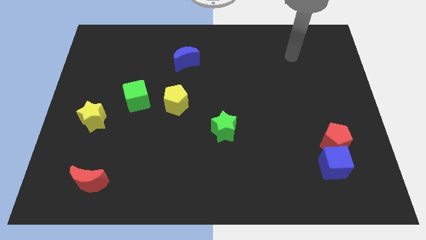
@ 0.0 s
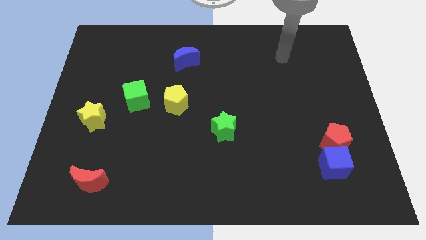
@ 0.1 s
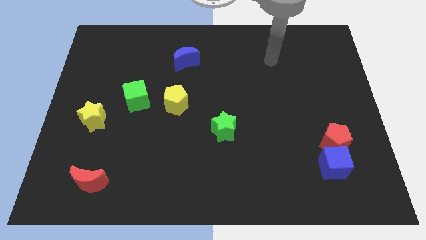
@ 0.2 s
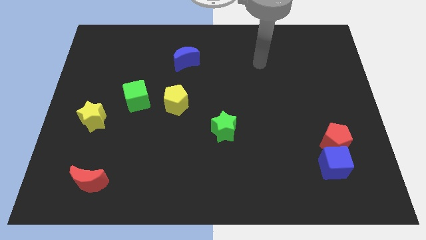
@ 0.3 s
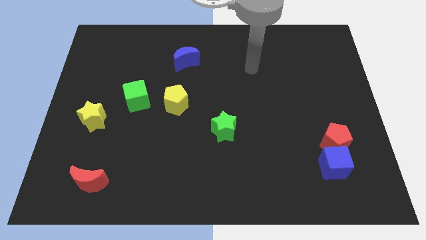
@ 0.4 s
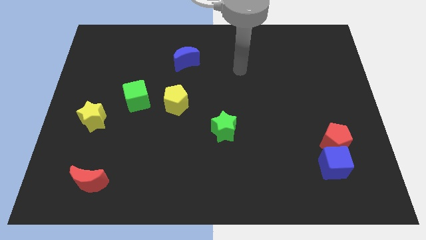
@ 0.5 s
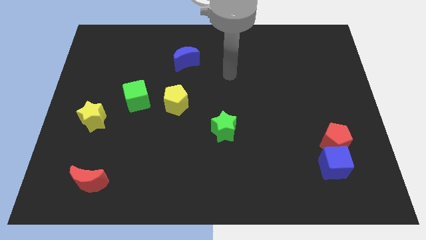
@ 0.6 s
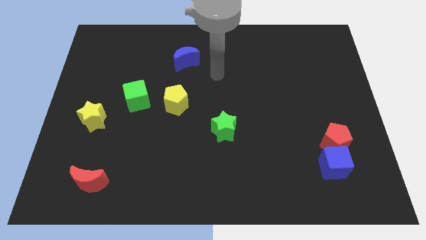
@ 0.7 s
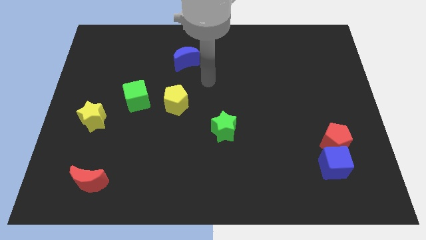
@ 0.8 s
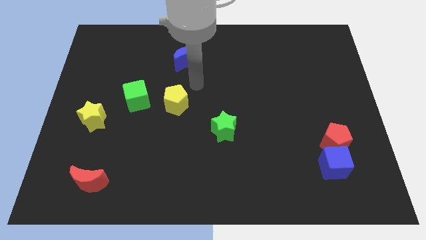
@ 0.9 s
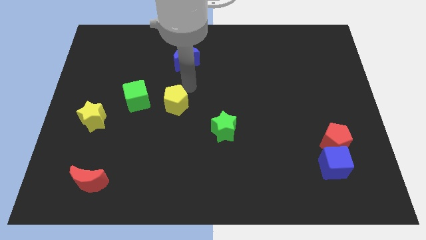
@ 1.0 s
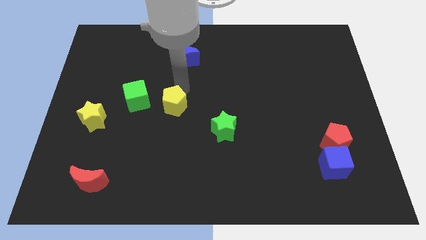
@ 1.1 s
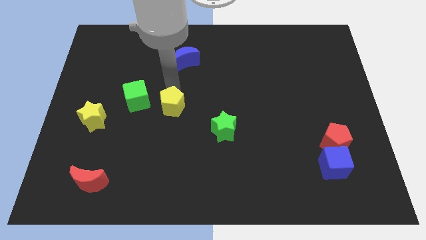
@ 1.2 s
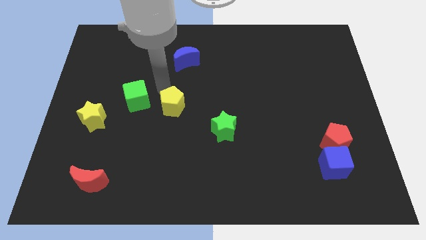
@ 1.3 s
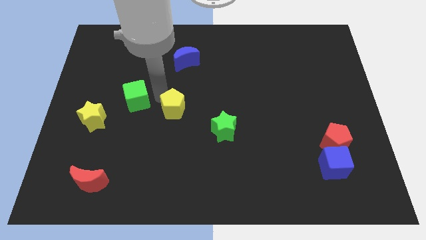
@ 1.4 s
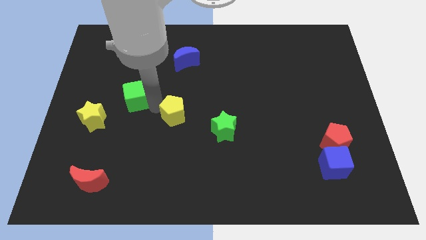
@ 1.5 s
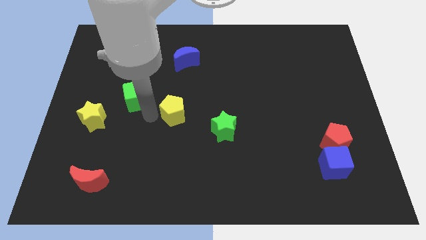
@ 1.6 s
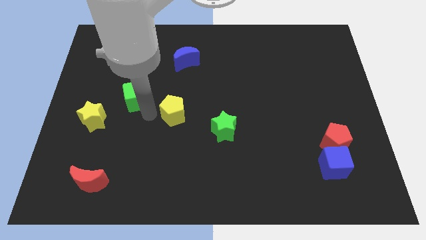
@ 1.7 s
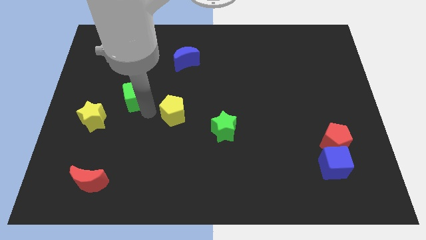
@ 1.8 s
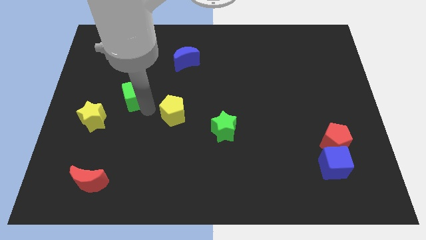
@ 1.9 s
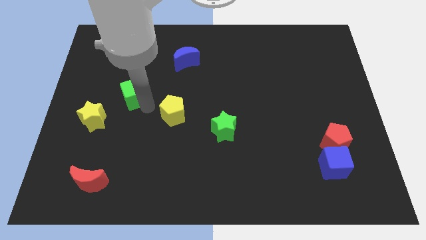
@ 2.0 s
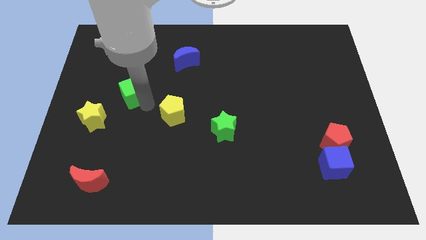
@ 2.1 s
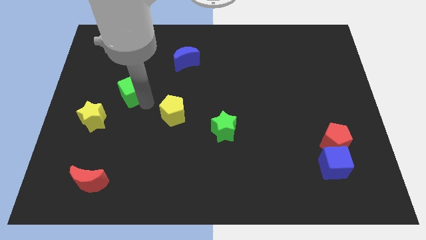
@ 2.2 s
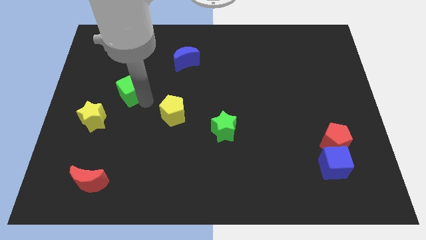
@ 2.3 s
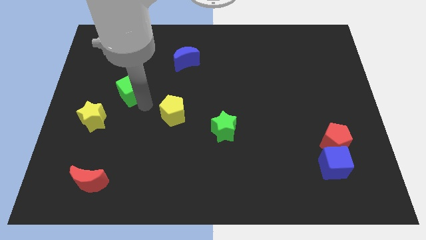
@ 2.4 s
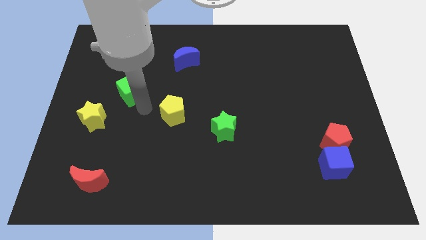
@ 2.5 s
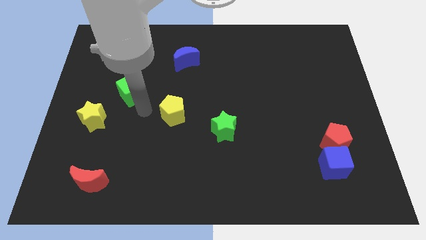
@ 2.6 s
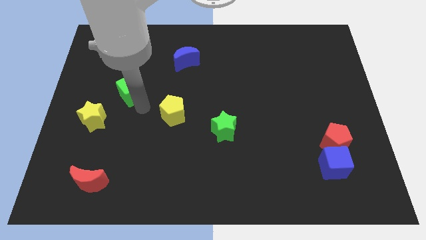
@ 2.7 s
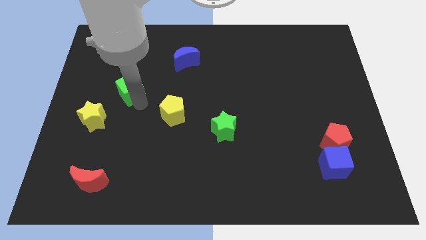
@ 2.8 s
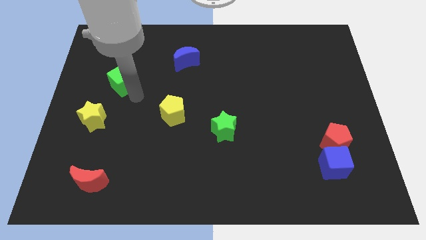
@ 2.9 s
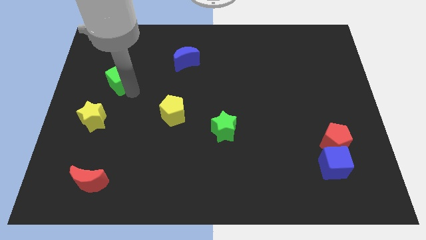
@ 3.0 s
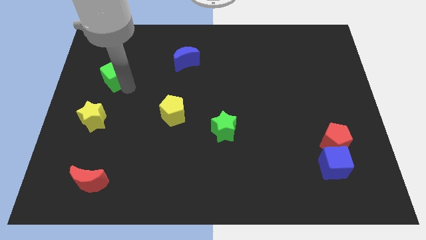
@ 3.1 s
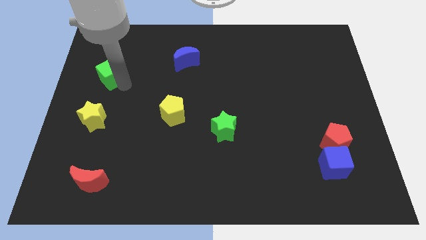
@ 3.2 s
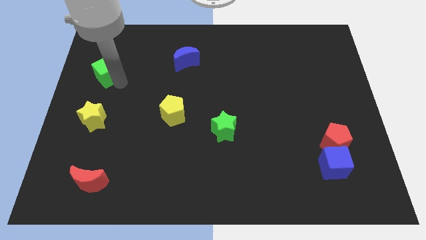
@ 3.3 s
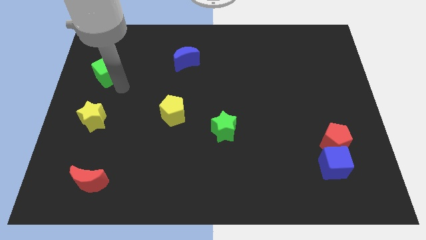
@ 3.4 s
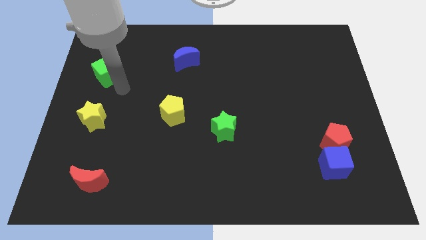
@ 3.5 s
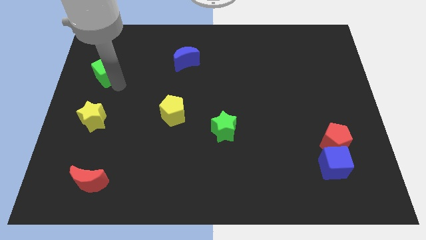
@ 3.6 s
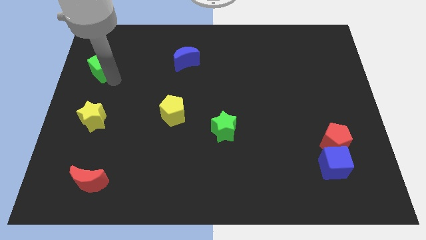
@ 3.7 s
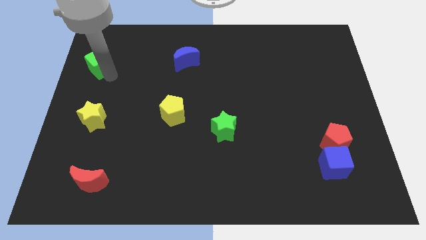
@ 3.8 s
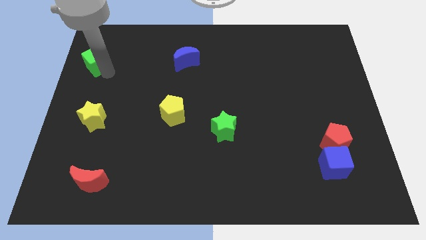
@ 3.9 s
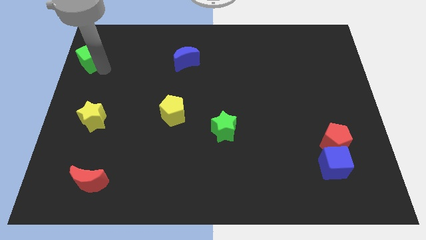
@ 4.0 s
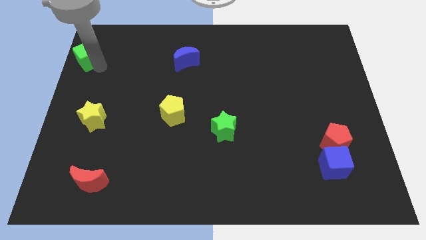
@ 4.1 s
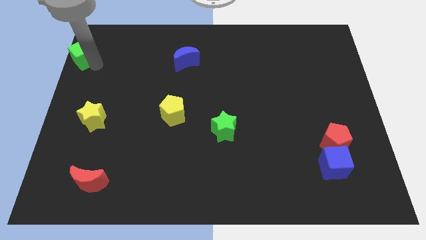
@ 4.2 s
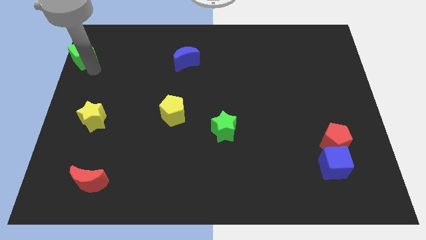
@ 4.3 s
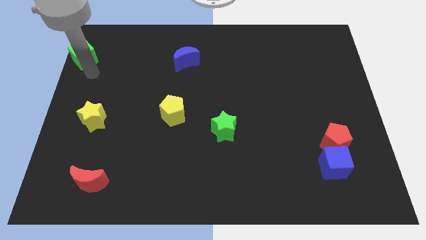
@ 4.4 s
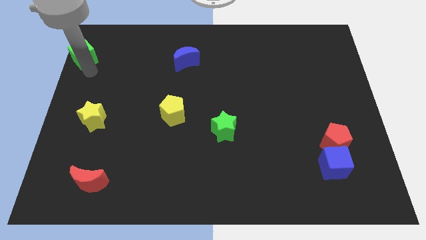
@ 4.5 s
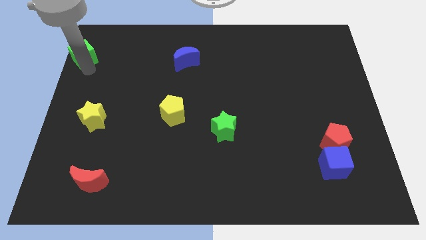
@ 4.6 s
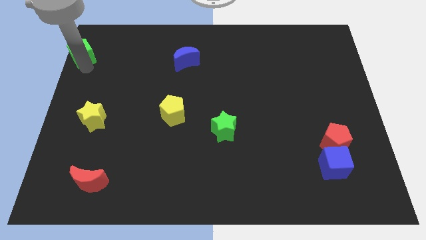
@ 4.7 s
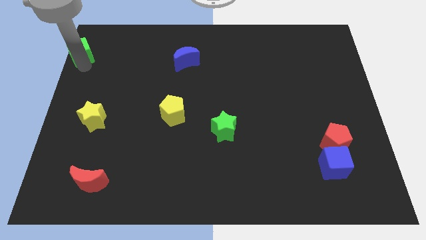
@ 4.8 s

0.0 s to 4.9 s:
move the green cube to the top left corner

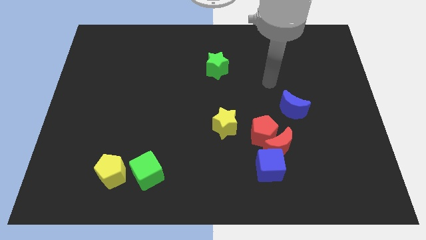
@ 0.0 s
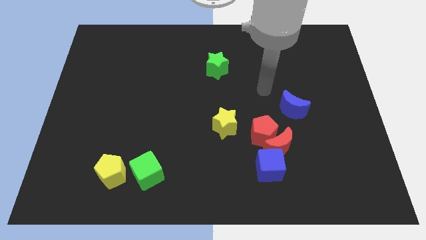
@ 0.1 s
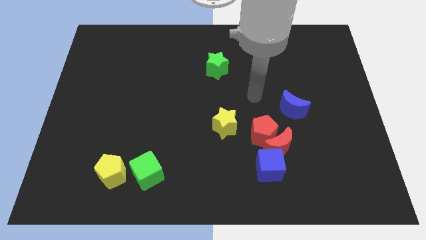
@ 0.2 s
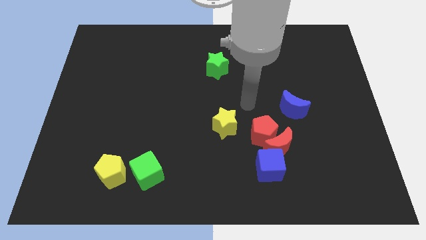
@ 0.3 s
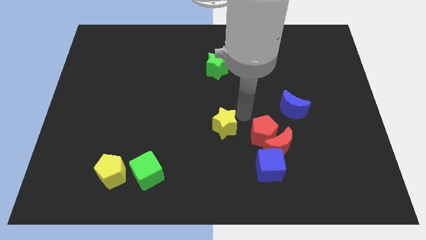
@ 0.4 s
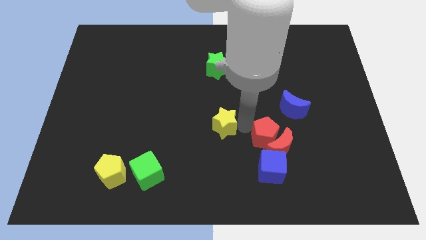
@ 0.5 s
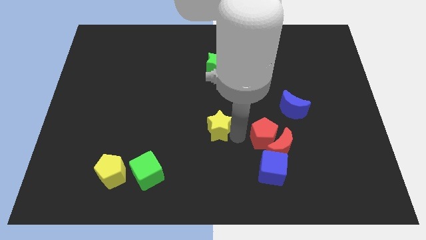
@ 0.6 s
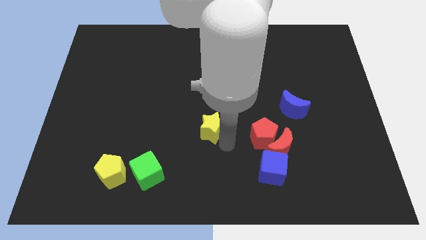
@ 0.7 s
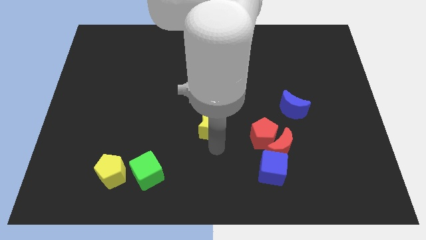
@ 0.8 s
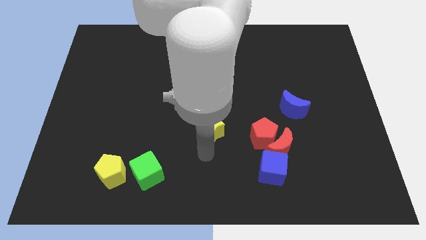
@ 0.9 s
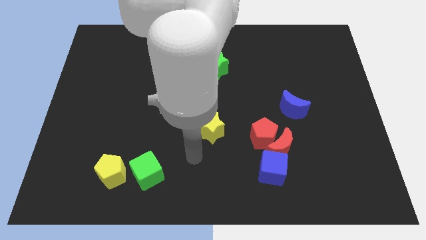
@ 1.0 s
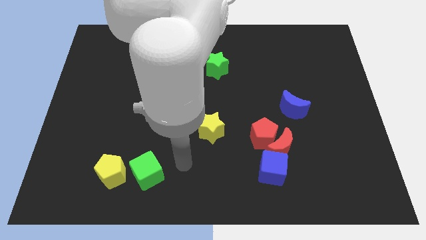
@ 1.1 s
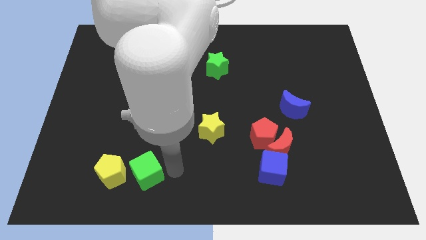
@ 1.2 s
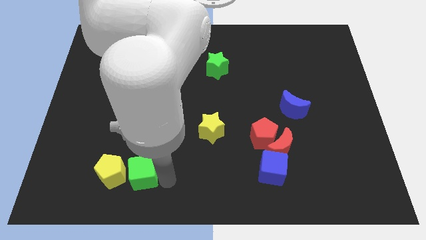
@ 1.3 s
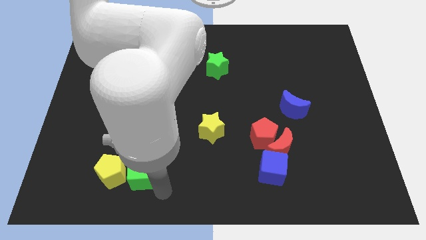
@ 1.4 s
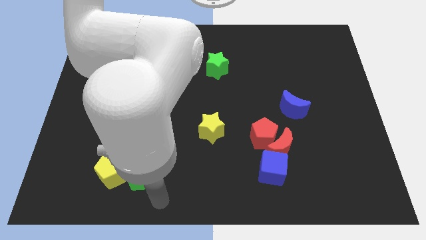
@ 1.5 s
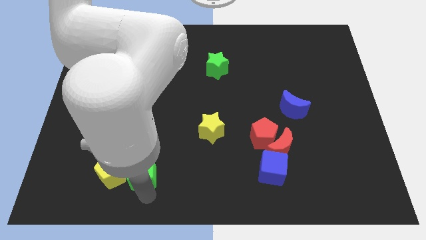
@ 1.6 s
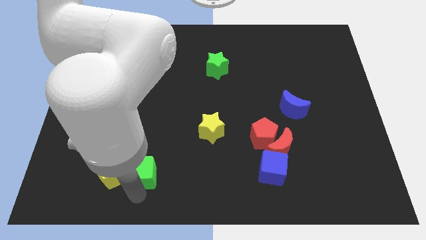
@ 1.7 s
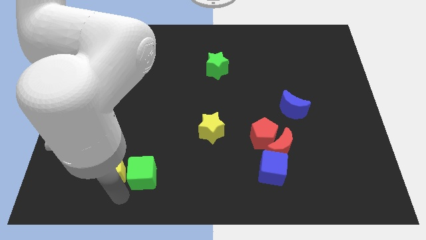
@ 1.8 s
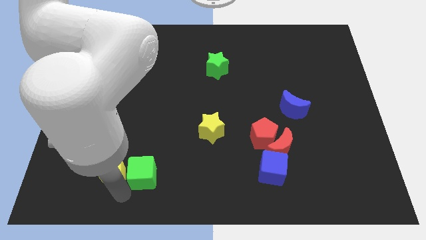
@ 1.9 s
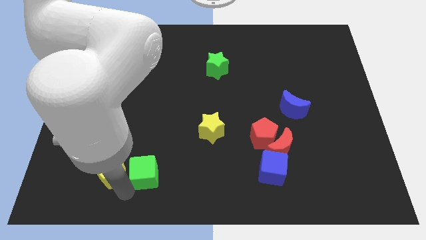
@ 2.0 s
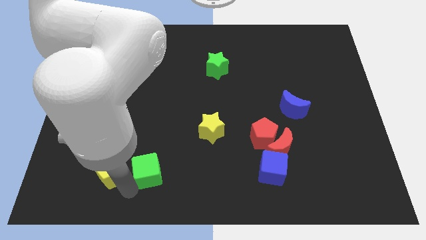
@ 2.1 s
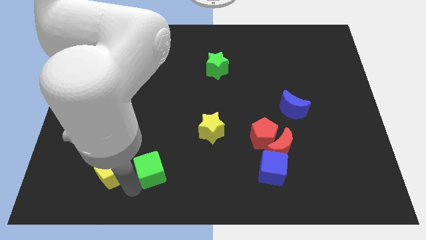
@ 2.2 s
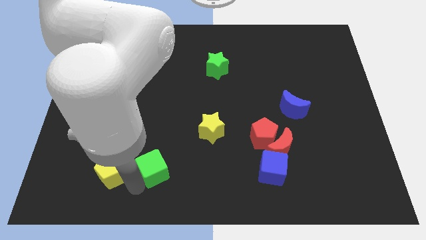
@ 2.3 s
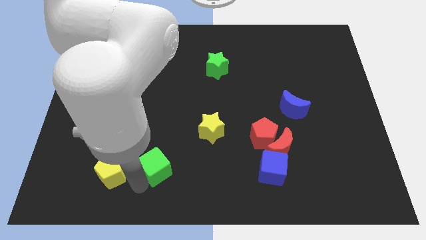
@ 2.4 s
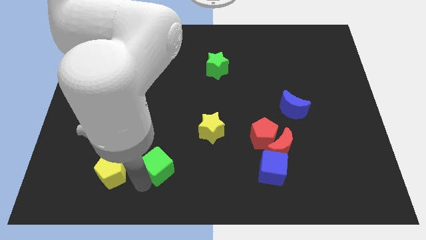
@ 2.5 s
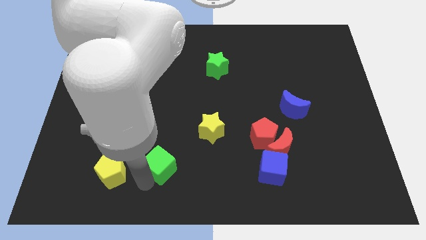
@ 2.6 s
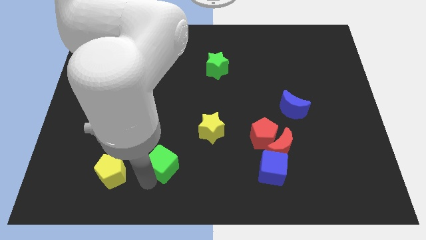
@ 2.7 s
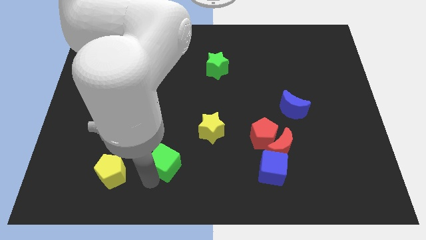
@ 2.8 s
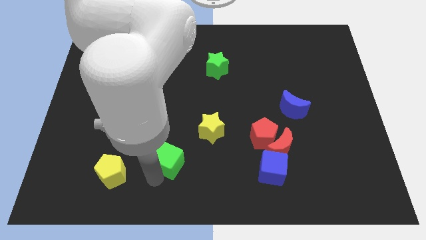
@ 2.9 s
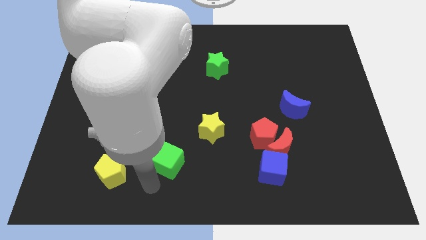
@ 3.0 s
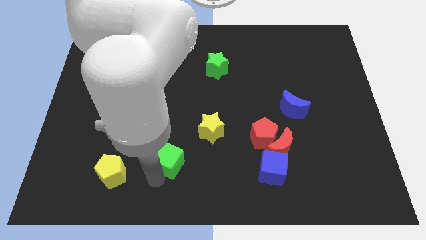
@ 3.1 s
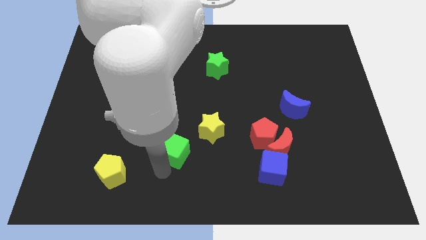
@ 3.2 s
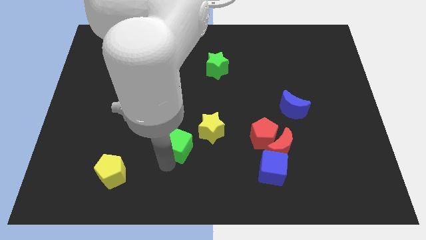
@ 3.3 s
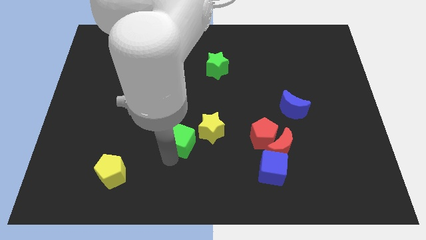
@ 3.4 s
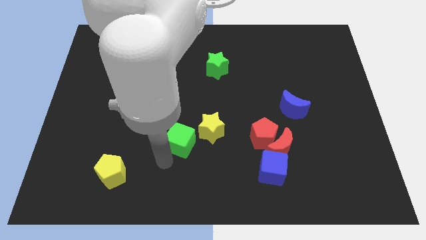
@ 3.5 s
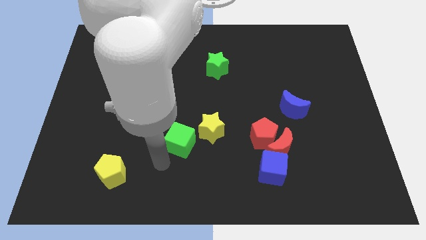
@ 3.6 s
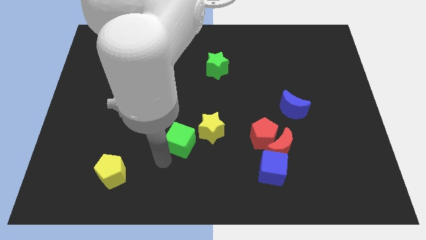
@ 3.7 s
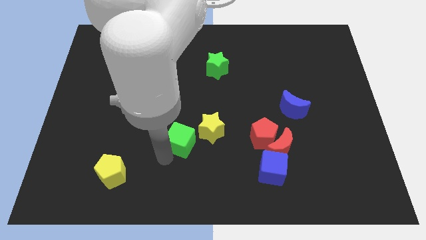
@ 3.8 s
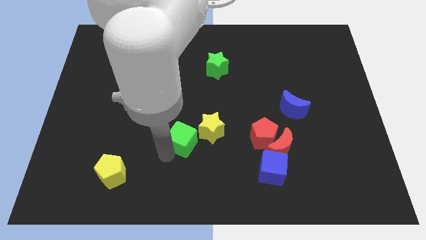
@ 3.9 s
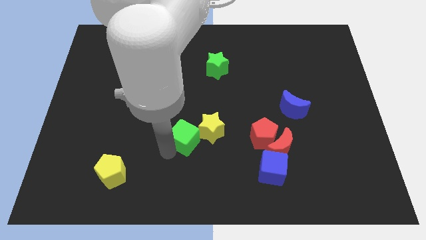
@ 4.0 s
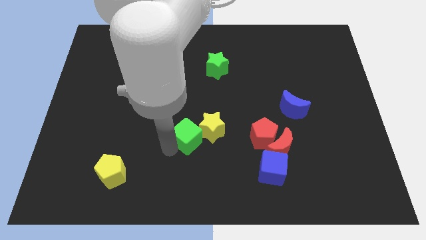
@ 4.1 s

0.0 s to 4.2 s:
move the green cube to the middle of the board
